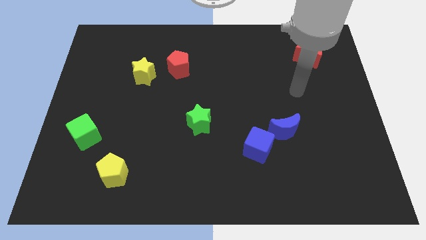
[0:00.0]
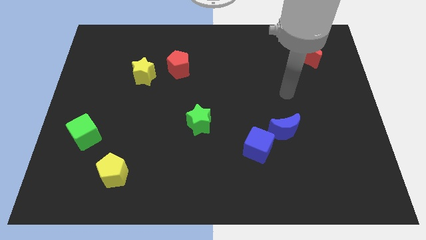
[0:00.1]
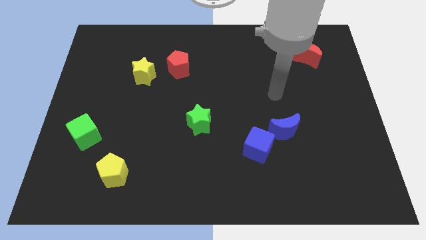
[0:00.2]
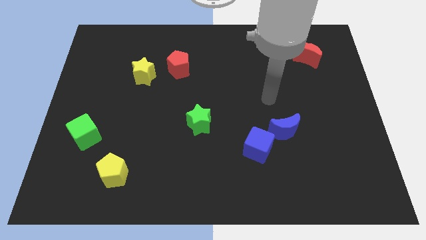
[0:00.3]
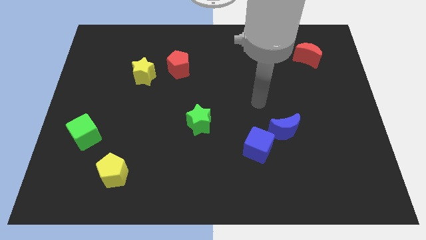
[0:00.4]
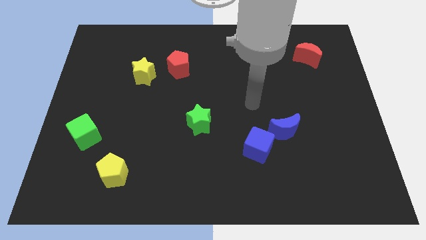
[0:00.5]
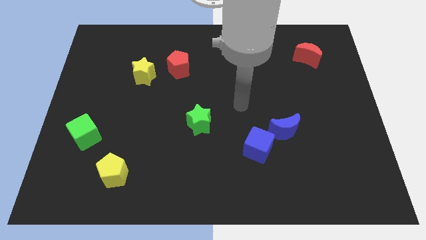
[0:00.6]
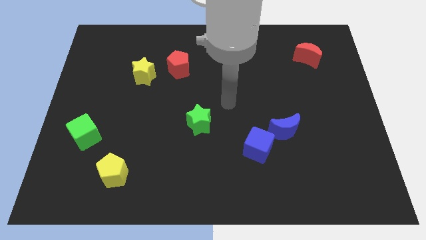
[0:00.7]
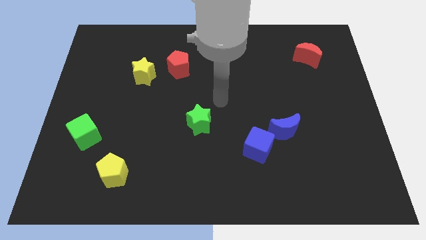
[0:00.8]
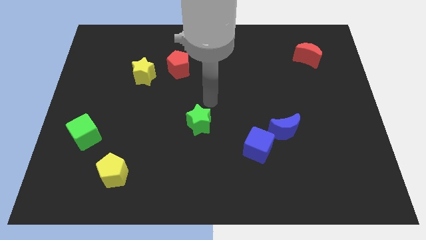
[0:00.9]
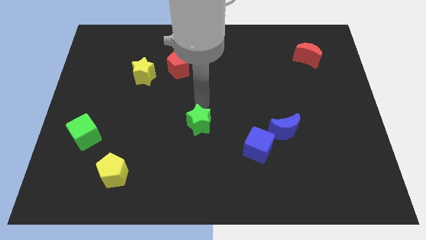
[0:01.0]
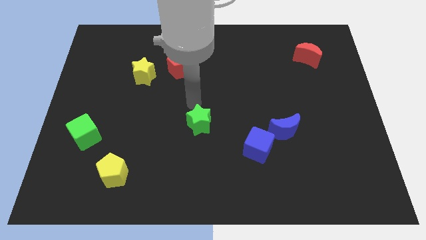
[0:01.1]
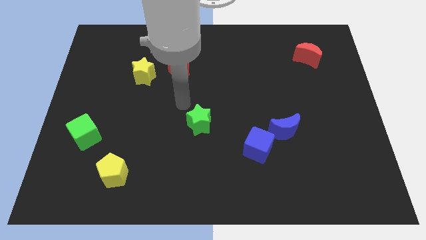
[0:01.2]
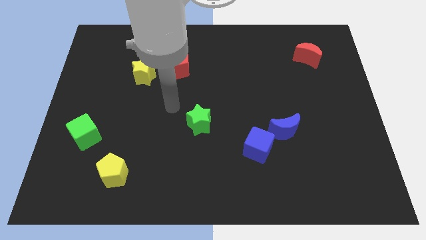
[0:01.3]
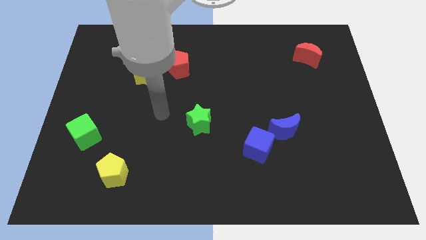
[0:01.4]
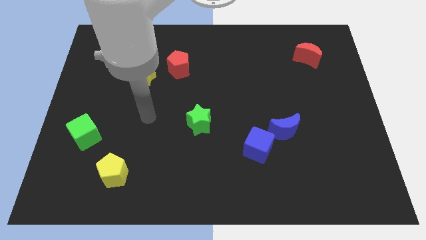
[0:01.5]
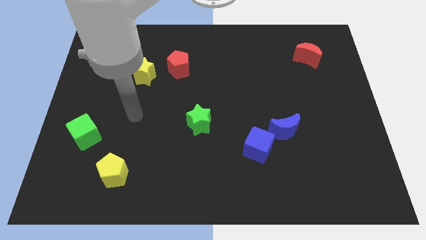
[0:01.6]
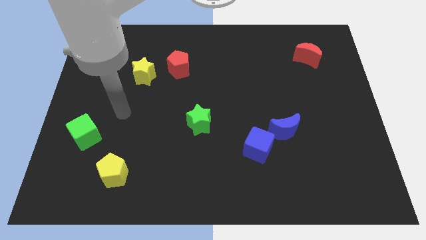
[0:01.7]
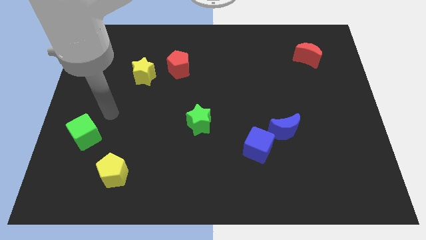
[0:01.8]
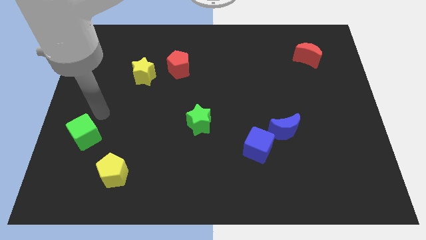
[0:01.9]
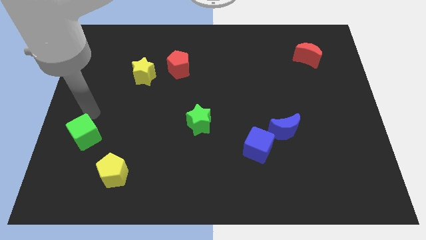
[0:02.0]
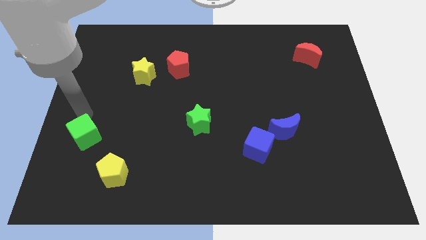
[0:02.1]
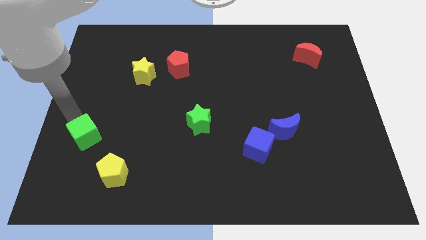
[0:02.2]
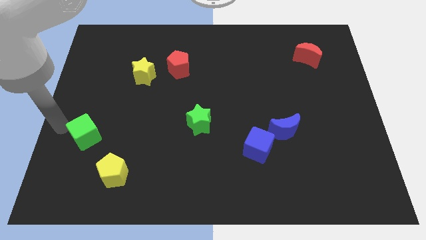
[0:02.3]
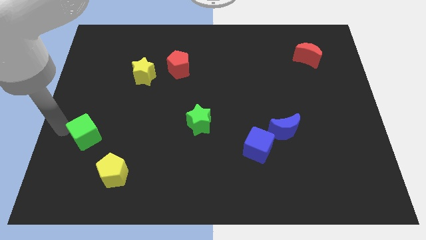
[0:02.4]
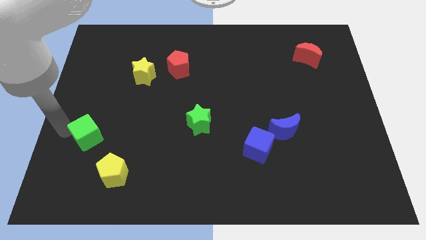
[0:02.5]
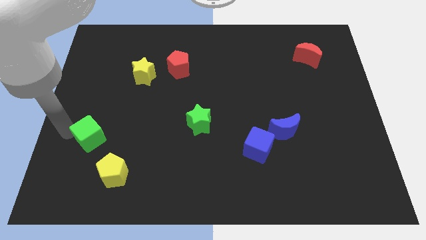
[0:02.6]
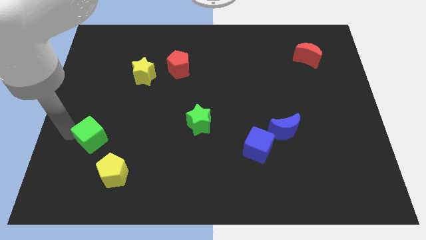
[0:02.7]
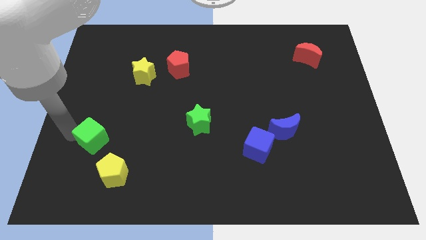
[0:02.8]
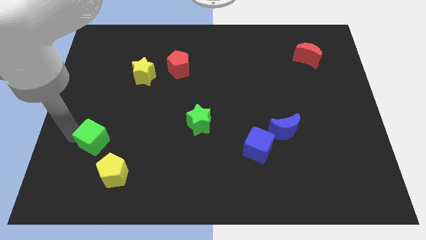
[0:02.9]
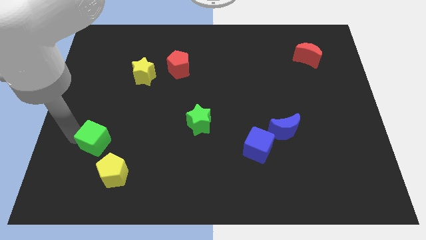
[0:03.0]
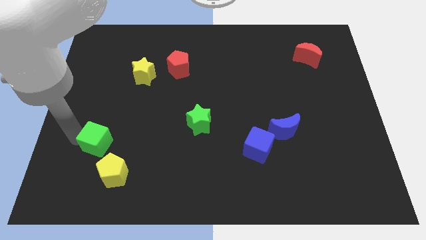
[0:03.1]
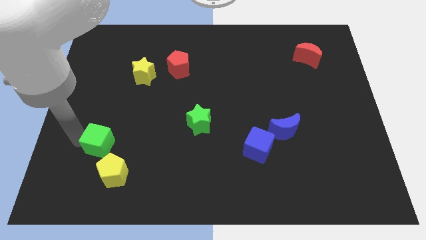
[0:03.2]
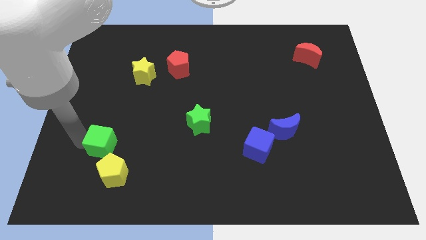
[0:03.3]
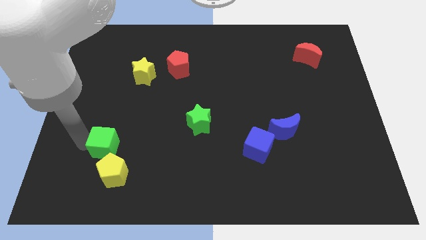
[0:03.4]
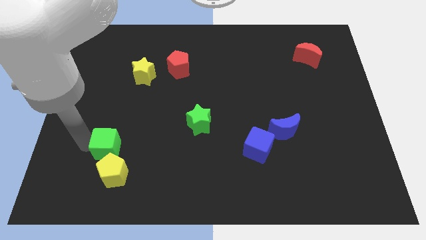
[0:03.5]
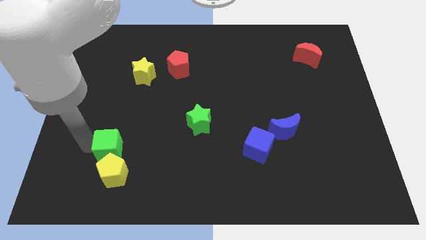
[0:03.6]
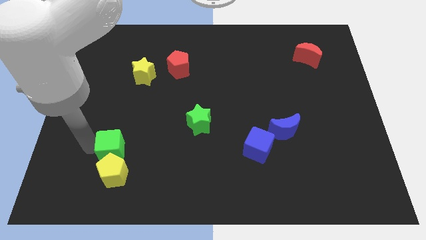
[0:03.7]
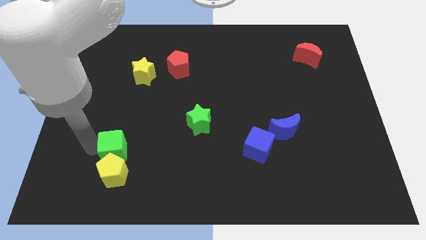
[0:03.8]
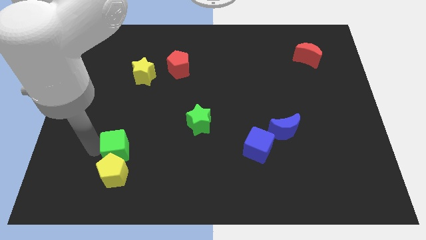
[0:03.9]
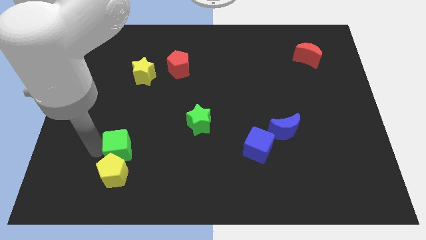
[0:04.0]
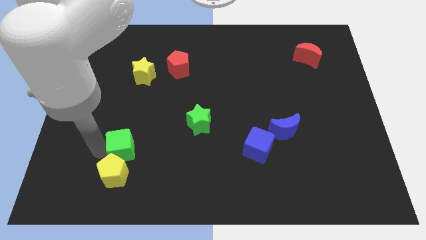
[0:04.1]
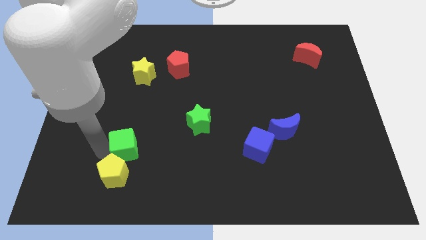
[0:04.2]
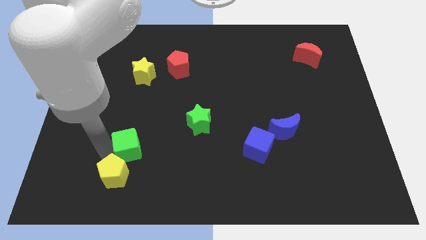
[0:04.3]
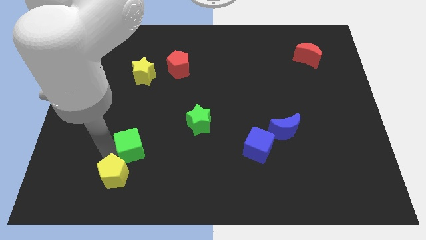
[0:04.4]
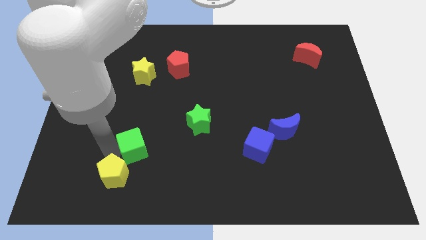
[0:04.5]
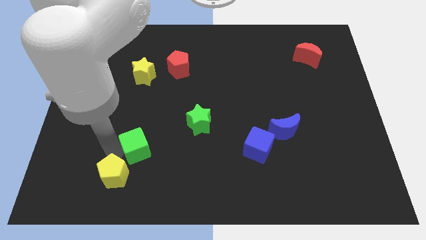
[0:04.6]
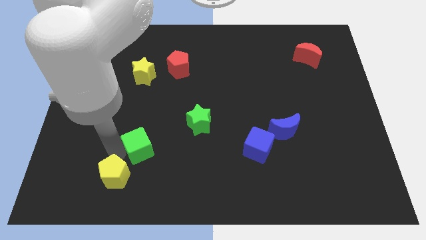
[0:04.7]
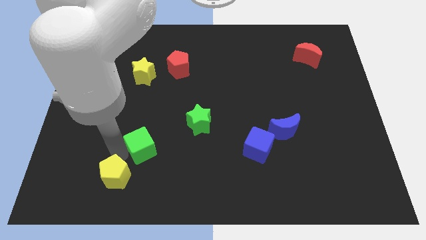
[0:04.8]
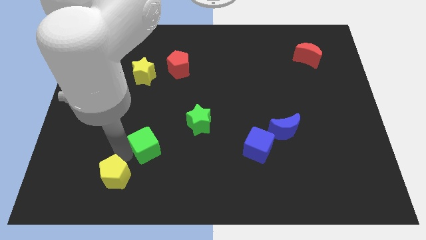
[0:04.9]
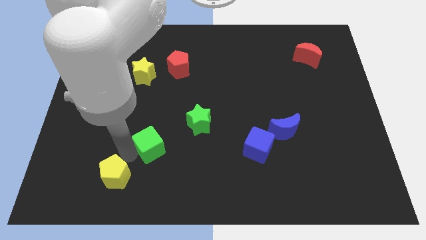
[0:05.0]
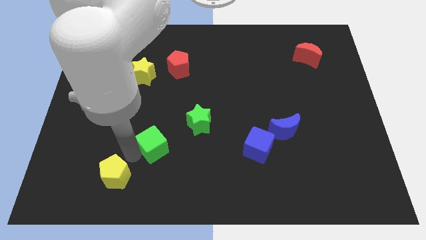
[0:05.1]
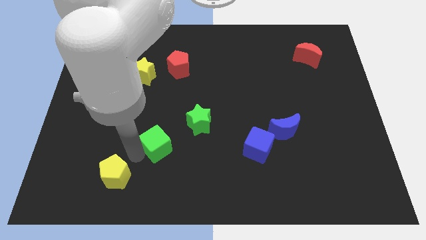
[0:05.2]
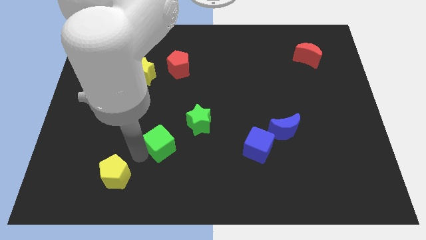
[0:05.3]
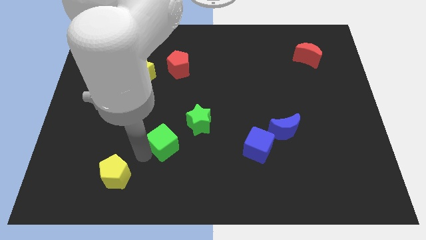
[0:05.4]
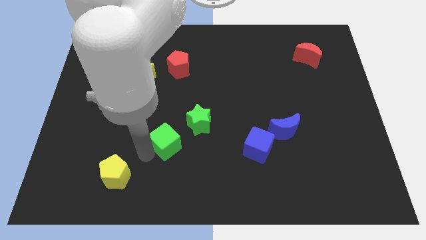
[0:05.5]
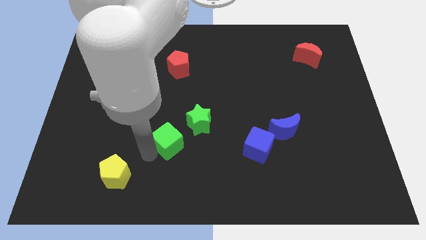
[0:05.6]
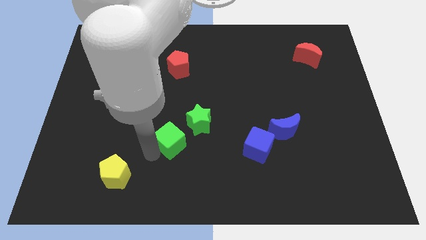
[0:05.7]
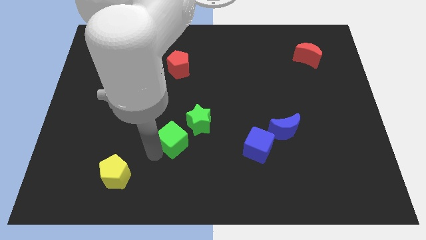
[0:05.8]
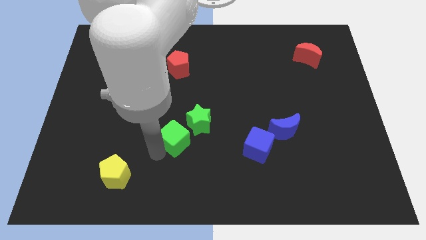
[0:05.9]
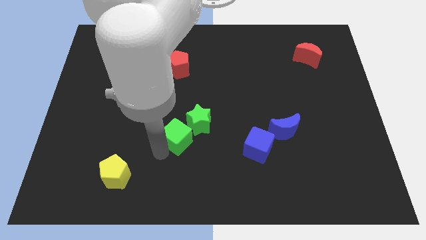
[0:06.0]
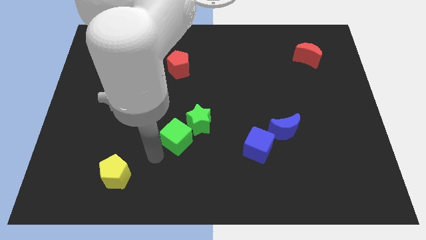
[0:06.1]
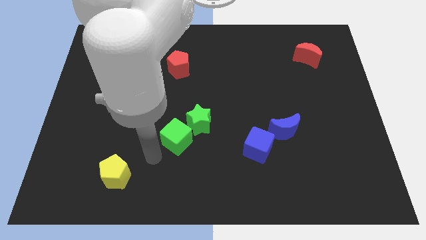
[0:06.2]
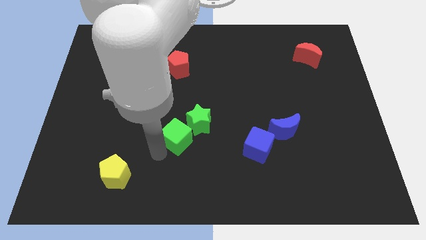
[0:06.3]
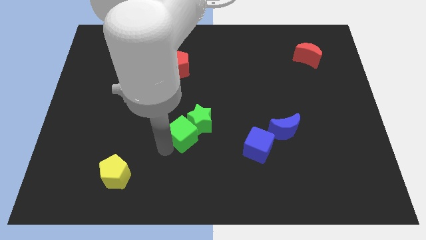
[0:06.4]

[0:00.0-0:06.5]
move the green cube towards the green star

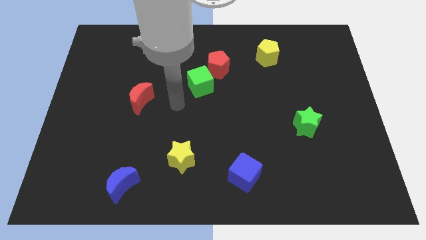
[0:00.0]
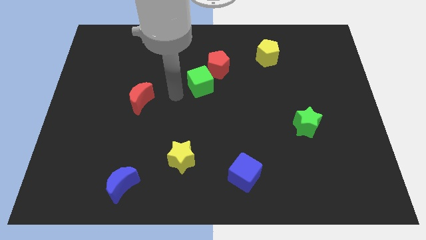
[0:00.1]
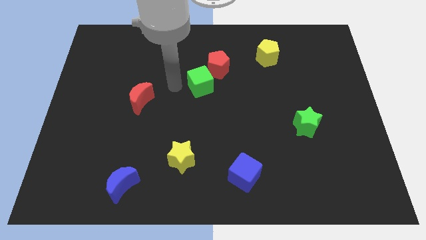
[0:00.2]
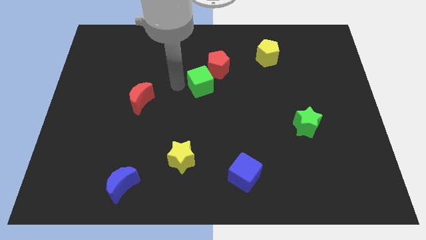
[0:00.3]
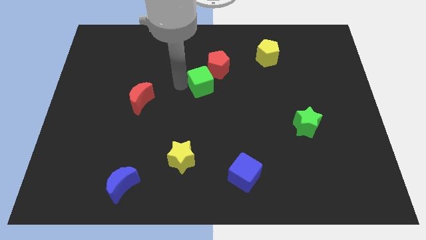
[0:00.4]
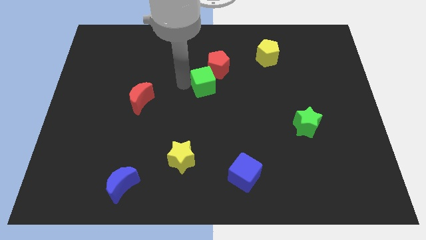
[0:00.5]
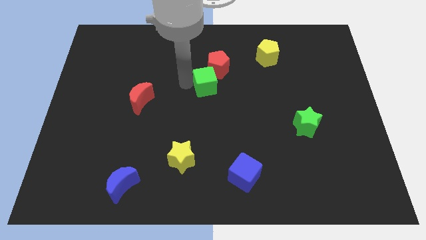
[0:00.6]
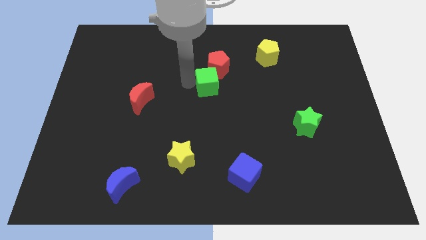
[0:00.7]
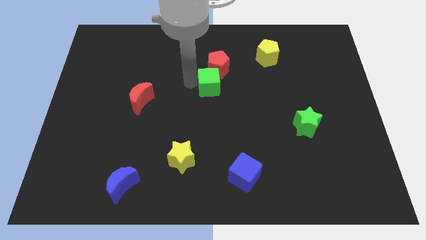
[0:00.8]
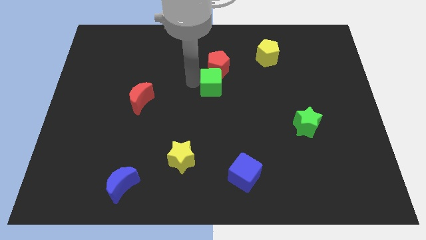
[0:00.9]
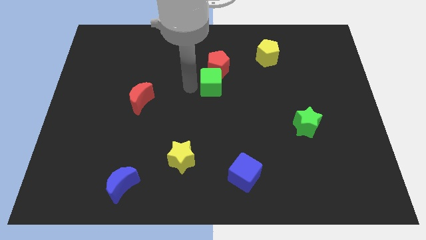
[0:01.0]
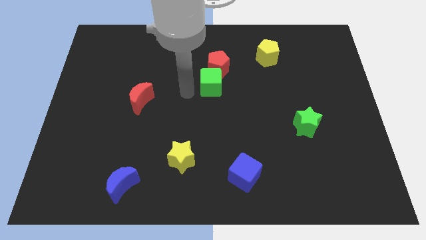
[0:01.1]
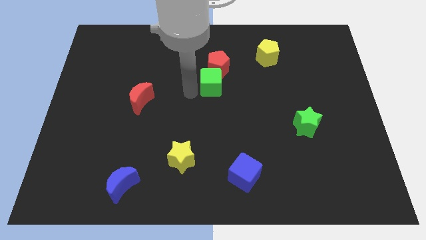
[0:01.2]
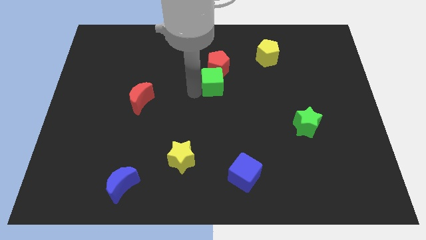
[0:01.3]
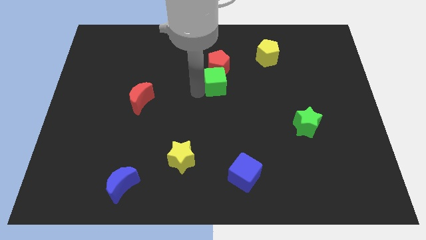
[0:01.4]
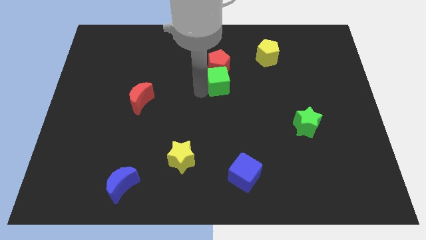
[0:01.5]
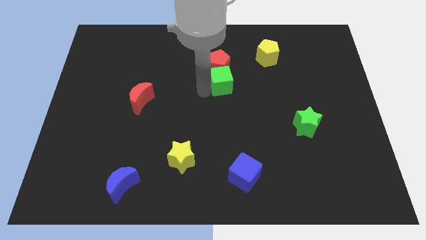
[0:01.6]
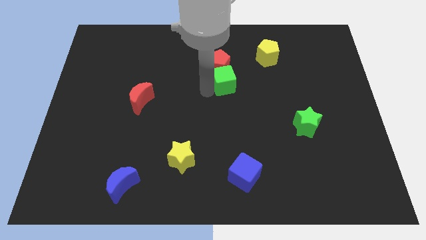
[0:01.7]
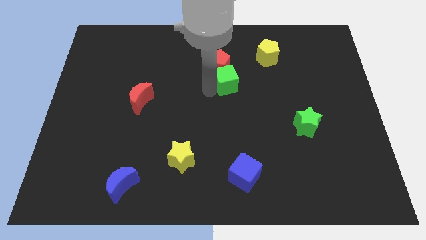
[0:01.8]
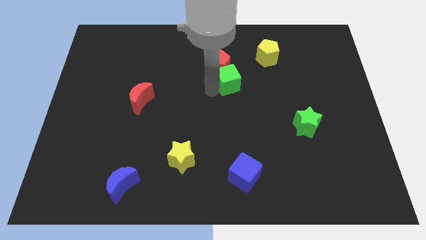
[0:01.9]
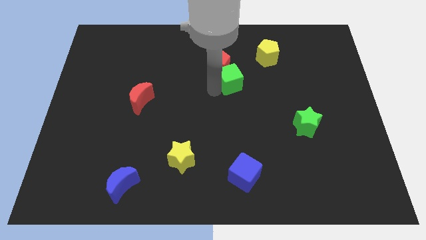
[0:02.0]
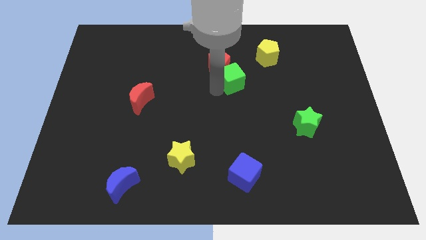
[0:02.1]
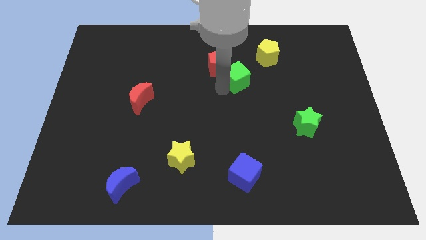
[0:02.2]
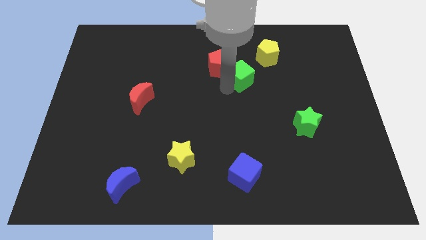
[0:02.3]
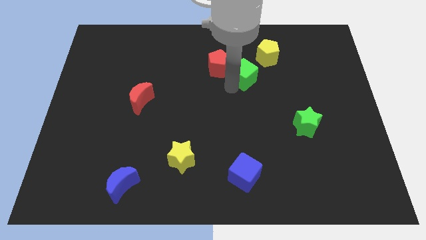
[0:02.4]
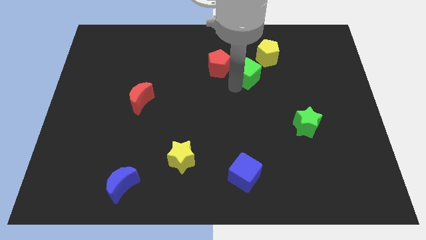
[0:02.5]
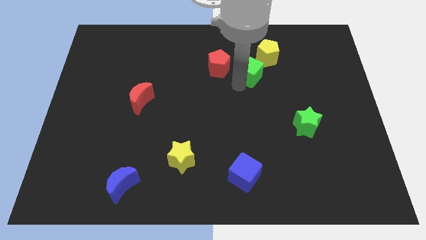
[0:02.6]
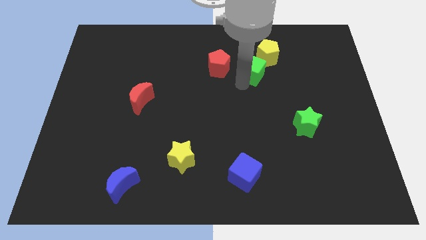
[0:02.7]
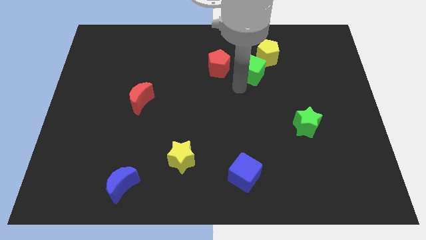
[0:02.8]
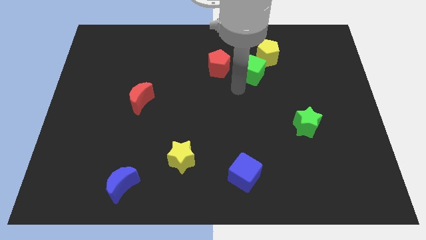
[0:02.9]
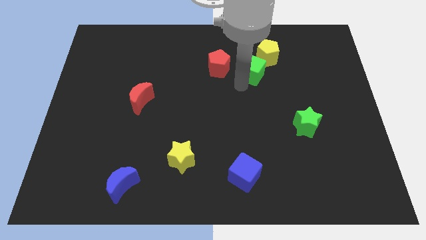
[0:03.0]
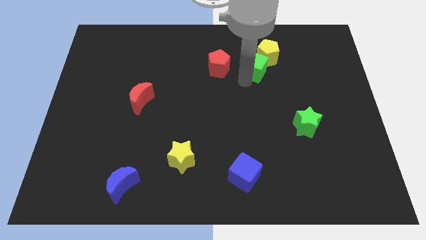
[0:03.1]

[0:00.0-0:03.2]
push the green cube next to the yellow pentagon
